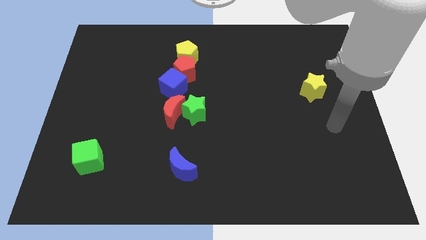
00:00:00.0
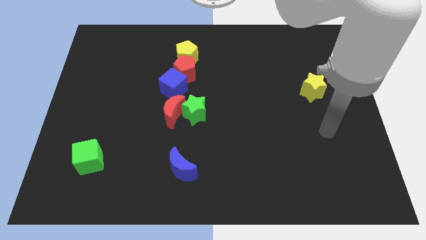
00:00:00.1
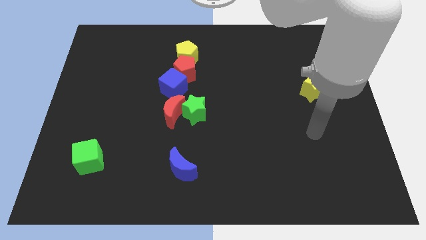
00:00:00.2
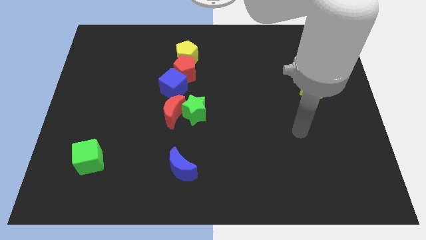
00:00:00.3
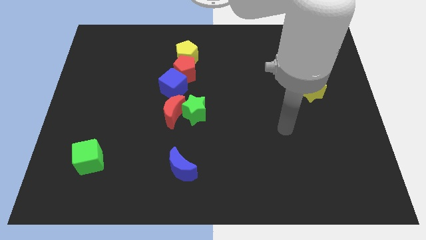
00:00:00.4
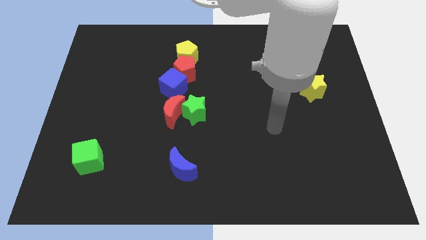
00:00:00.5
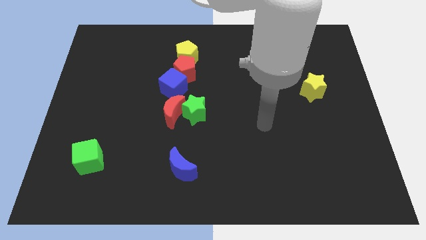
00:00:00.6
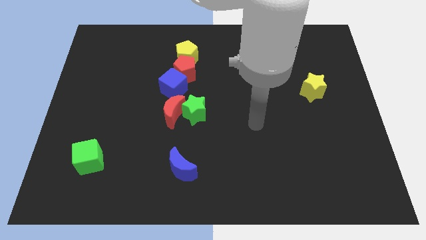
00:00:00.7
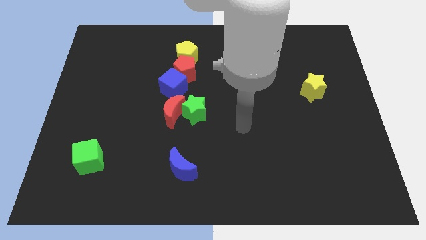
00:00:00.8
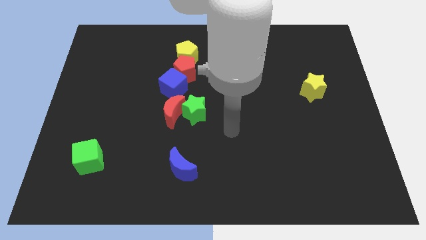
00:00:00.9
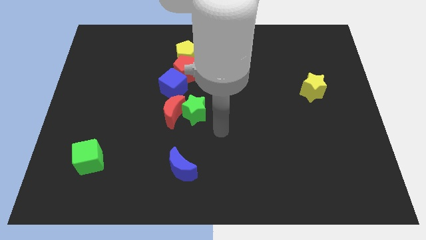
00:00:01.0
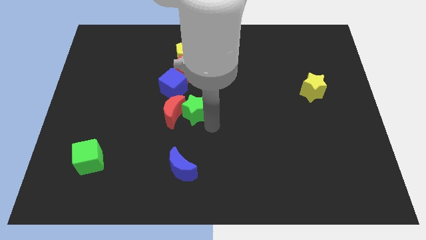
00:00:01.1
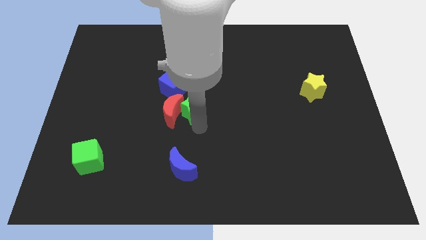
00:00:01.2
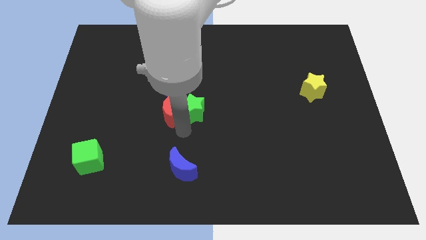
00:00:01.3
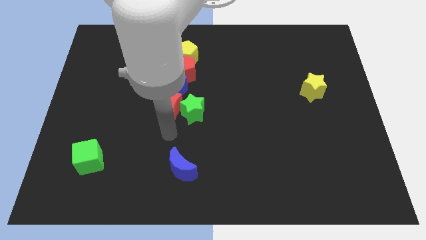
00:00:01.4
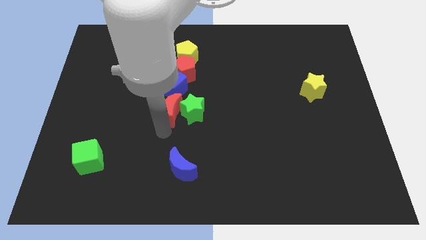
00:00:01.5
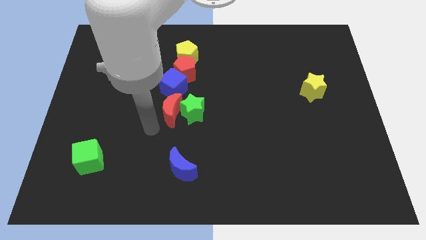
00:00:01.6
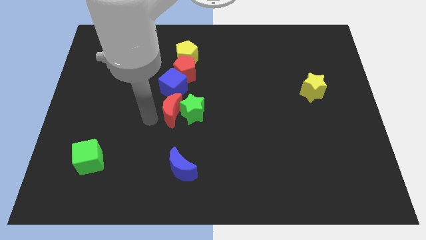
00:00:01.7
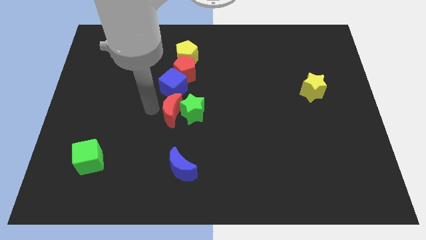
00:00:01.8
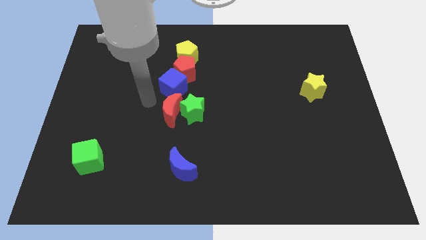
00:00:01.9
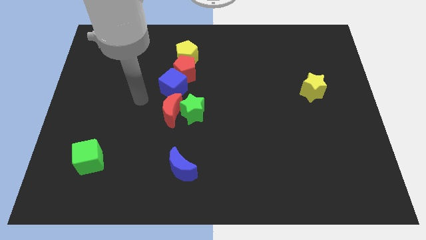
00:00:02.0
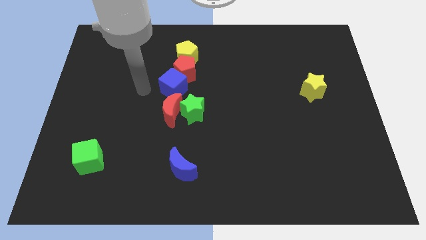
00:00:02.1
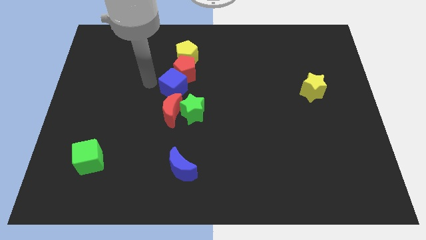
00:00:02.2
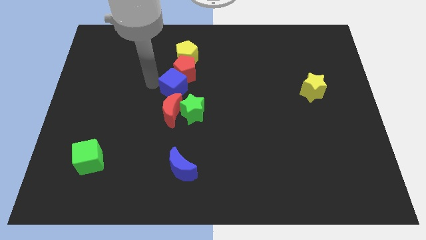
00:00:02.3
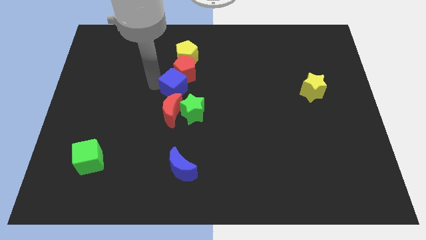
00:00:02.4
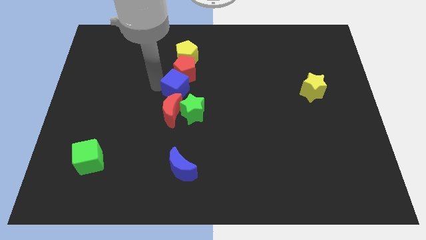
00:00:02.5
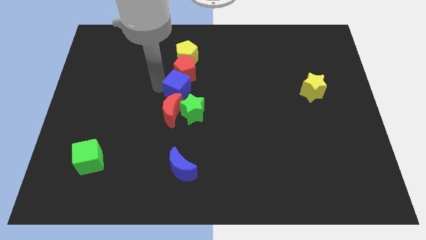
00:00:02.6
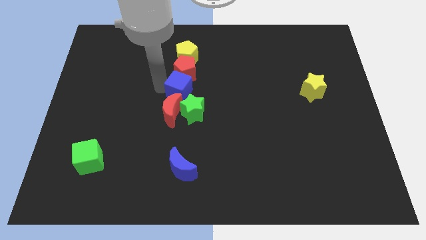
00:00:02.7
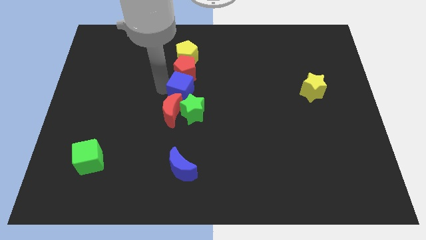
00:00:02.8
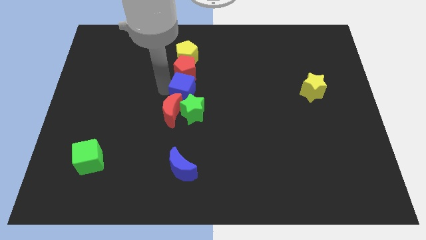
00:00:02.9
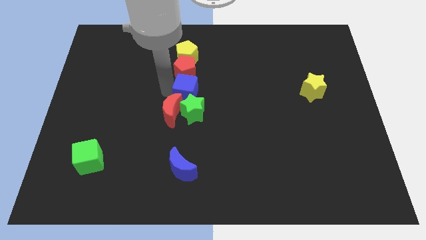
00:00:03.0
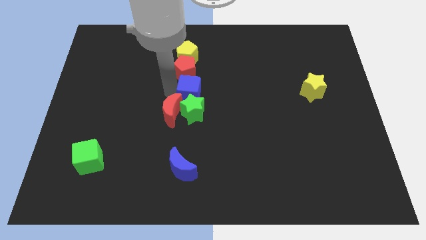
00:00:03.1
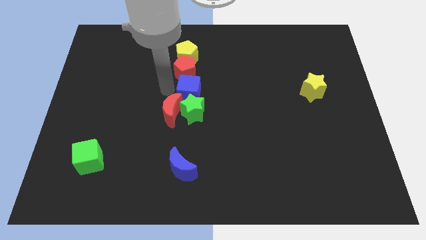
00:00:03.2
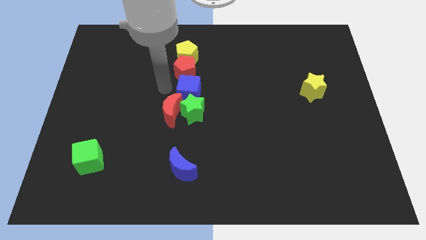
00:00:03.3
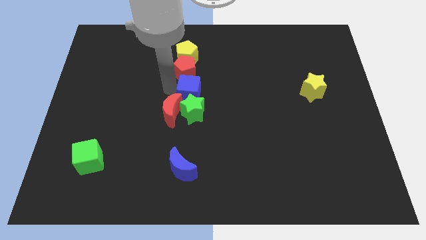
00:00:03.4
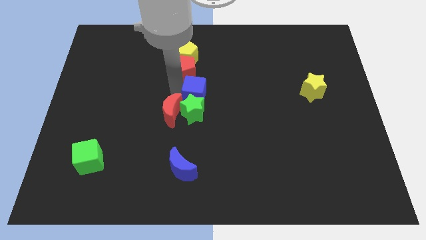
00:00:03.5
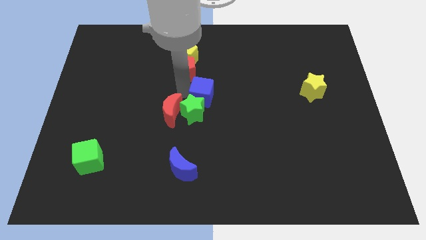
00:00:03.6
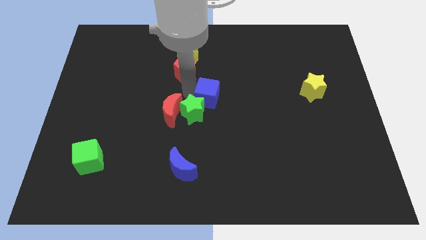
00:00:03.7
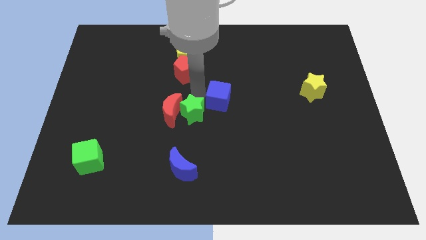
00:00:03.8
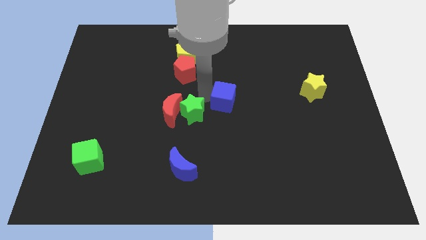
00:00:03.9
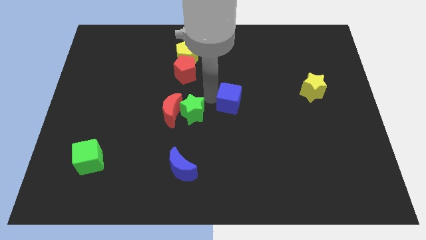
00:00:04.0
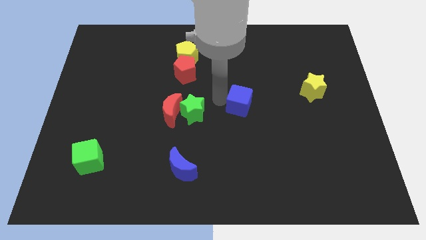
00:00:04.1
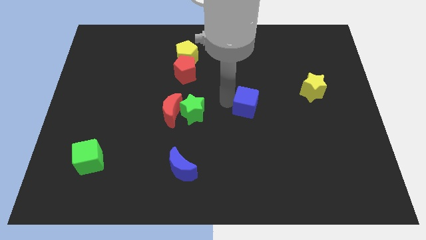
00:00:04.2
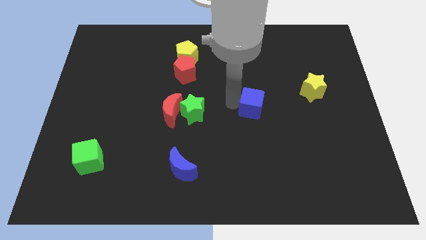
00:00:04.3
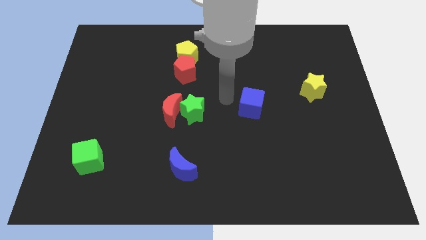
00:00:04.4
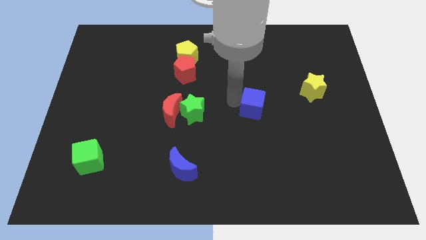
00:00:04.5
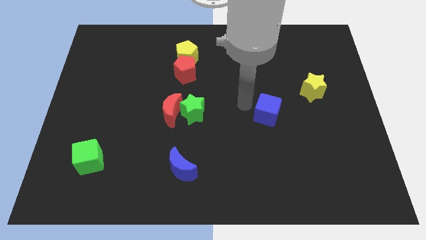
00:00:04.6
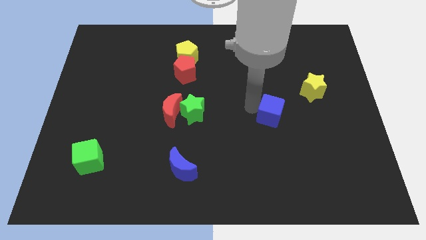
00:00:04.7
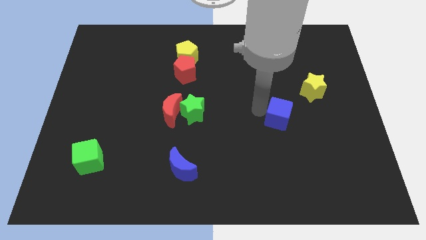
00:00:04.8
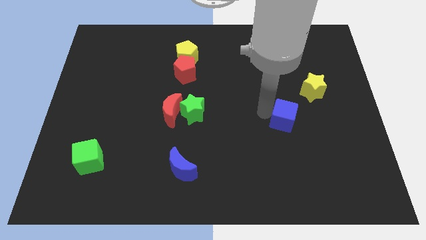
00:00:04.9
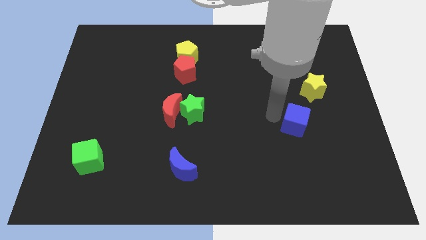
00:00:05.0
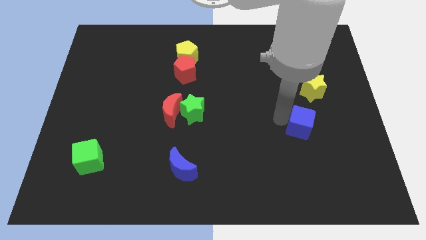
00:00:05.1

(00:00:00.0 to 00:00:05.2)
slide the blue cube below the yellow star

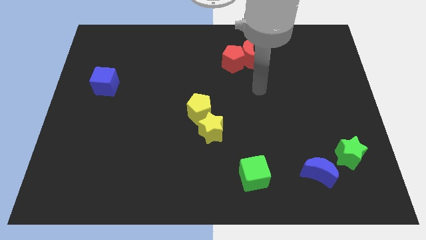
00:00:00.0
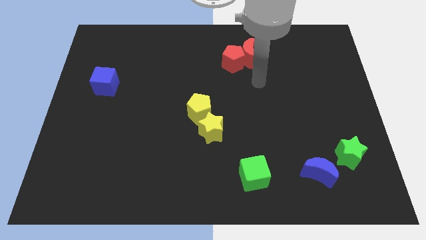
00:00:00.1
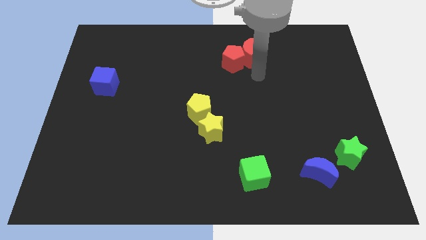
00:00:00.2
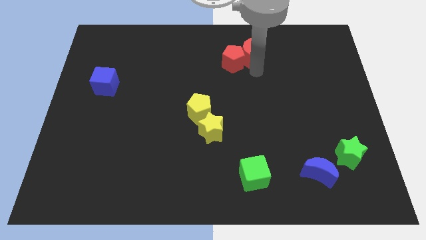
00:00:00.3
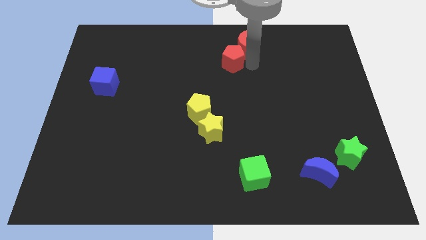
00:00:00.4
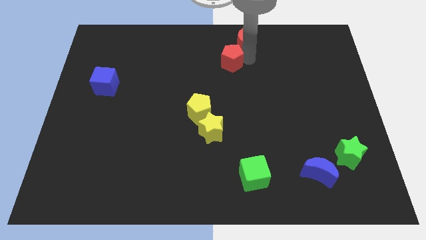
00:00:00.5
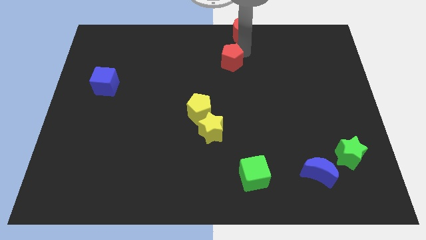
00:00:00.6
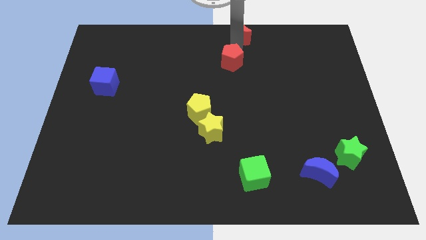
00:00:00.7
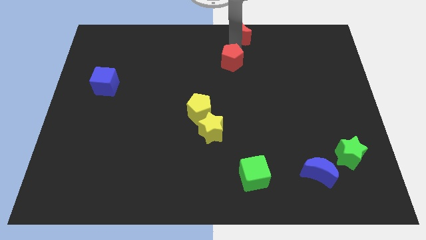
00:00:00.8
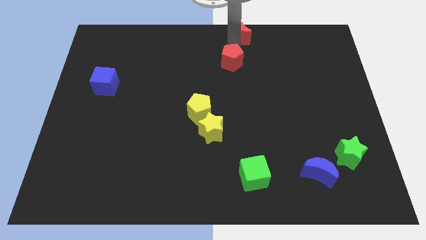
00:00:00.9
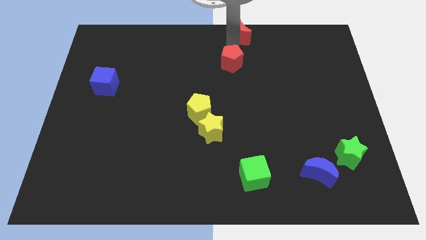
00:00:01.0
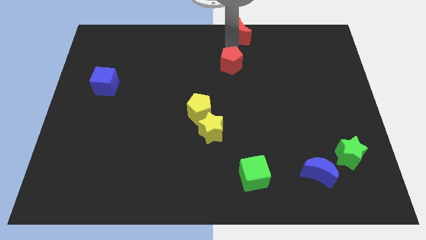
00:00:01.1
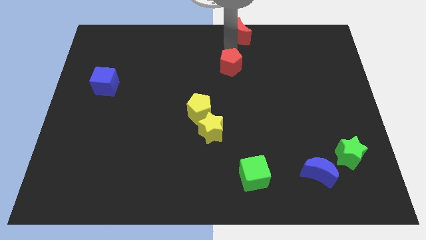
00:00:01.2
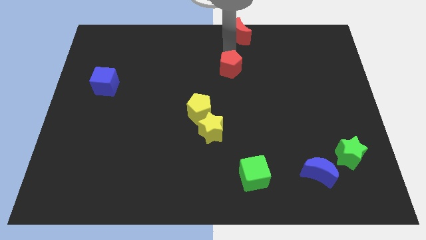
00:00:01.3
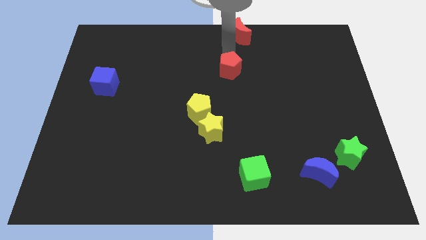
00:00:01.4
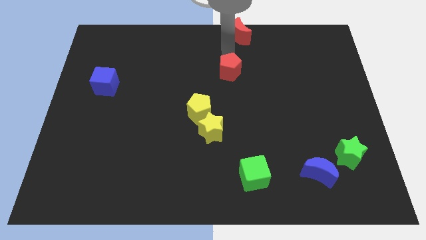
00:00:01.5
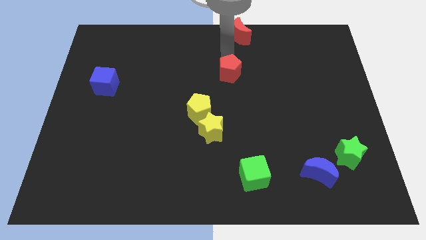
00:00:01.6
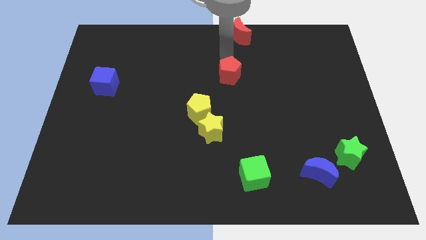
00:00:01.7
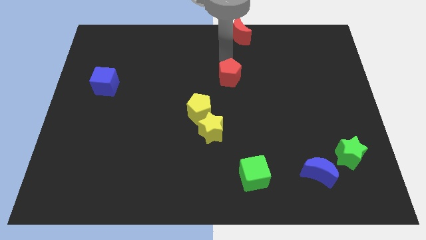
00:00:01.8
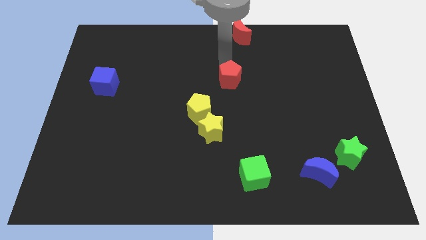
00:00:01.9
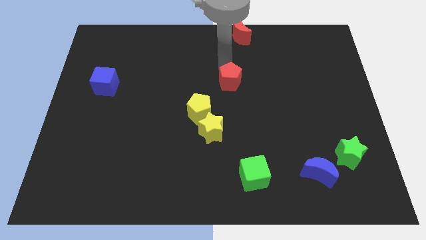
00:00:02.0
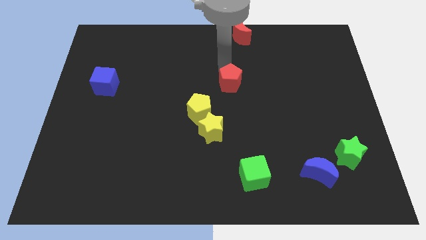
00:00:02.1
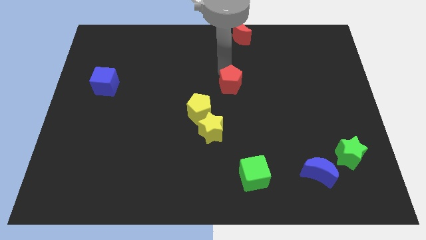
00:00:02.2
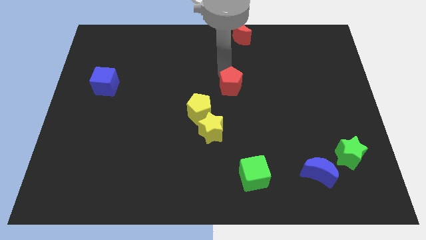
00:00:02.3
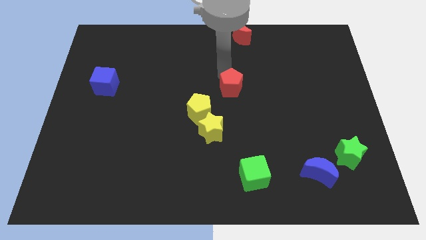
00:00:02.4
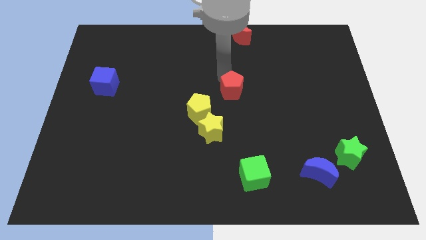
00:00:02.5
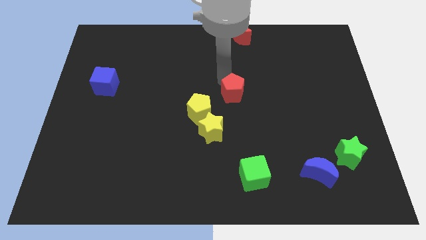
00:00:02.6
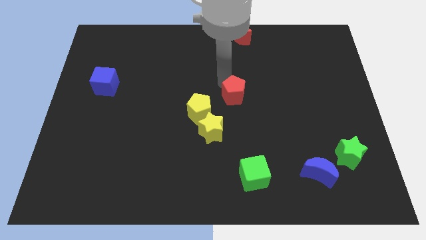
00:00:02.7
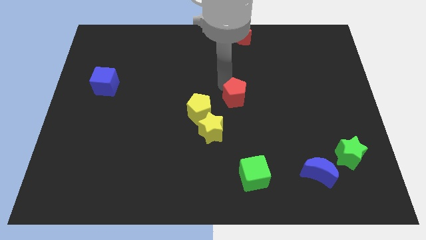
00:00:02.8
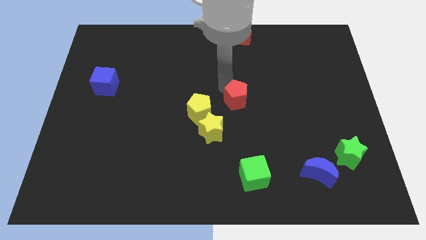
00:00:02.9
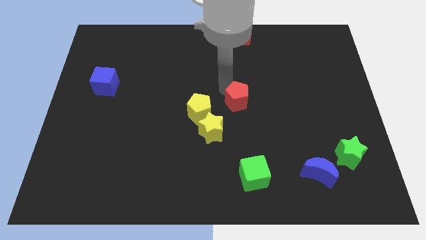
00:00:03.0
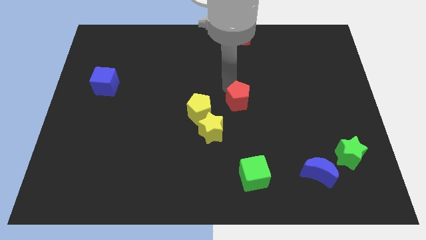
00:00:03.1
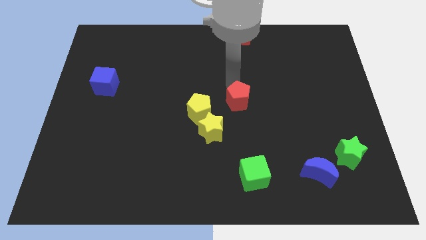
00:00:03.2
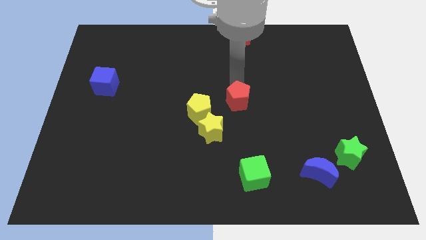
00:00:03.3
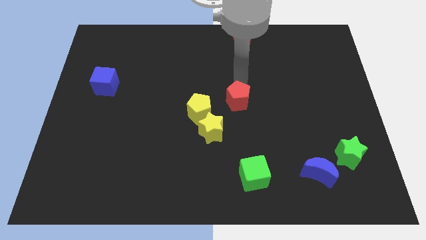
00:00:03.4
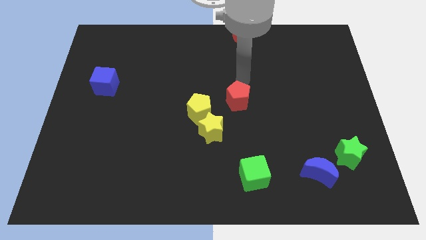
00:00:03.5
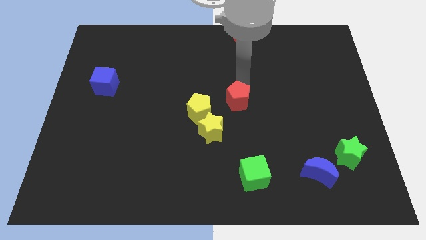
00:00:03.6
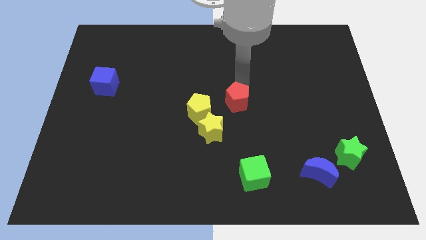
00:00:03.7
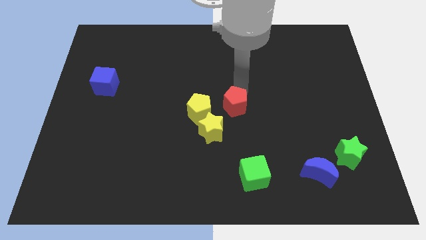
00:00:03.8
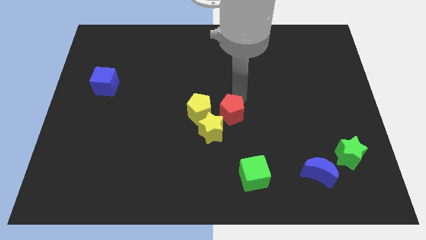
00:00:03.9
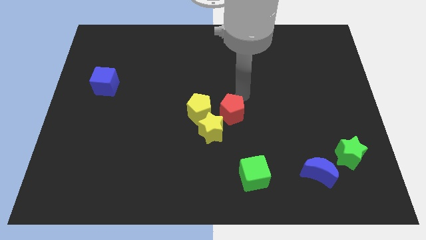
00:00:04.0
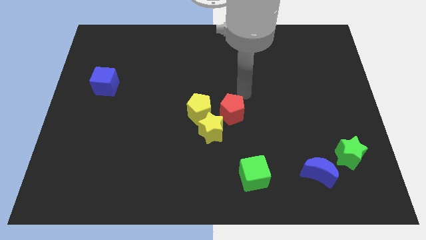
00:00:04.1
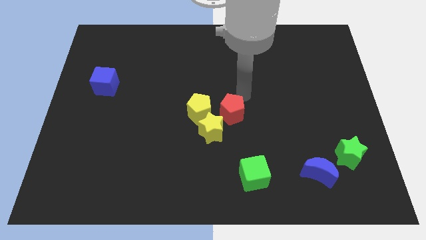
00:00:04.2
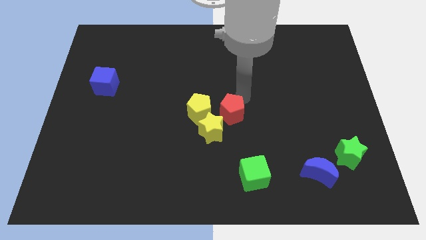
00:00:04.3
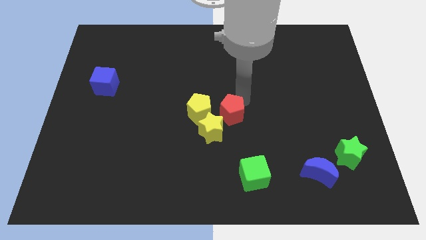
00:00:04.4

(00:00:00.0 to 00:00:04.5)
push the red pentagon to the bottom right side of the yellow pentagon
